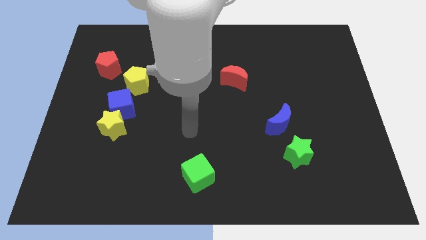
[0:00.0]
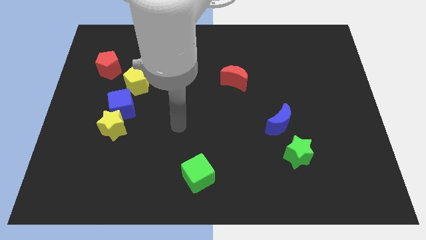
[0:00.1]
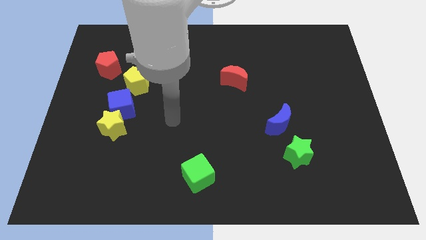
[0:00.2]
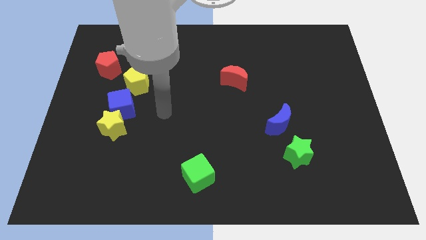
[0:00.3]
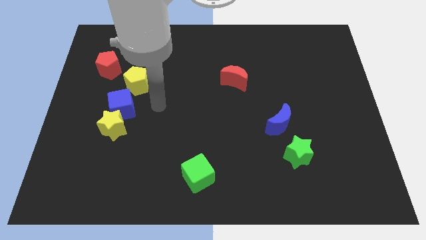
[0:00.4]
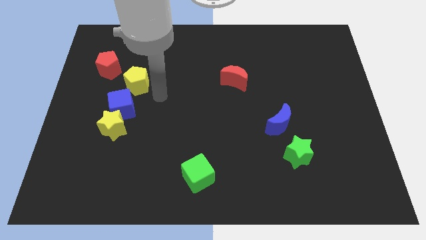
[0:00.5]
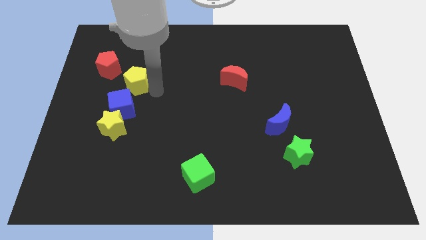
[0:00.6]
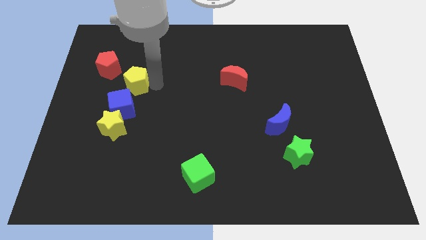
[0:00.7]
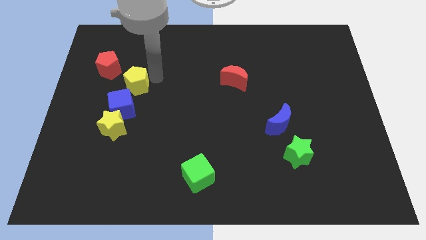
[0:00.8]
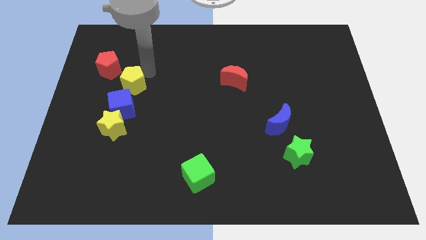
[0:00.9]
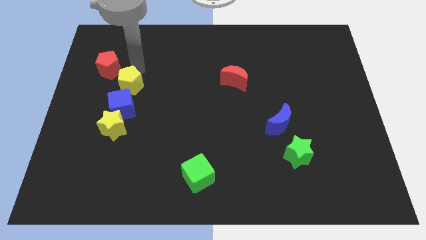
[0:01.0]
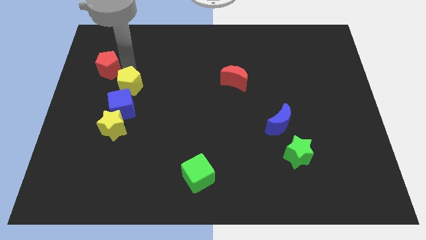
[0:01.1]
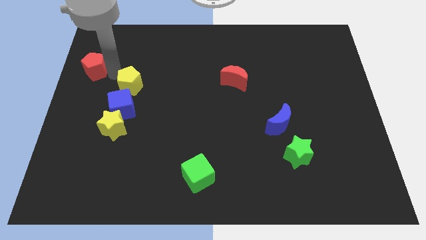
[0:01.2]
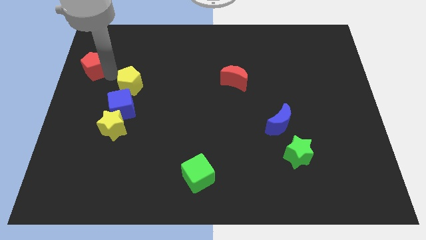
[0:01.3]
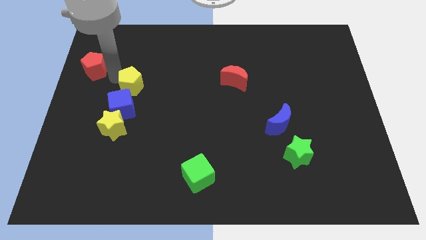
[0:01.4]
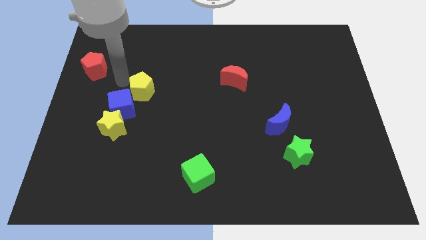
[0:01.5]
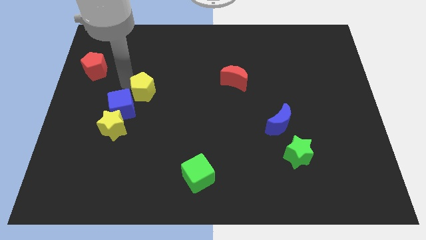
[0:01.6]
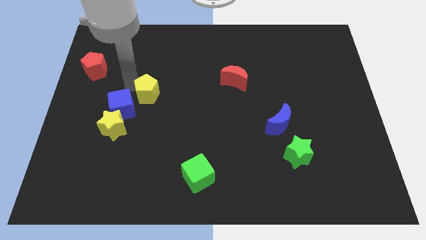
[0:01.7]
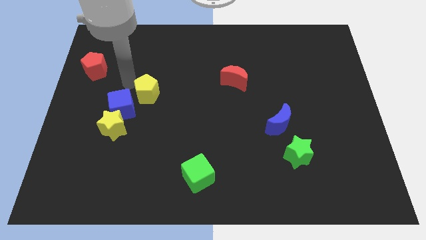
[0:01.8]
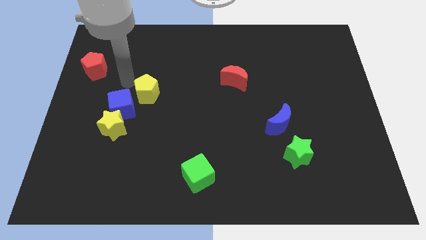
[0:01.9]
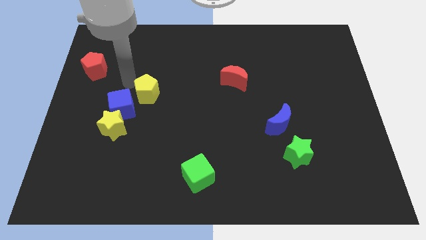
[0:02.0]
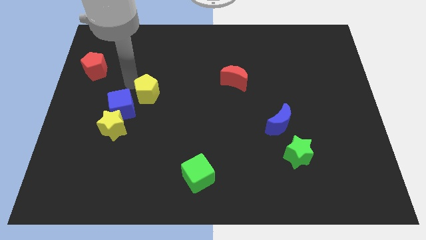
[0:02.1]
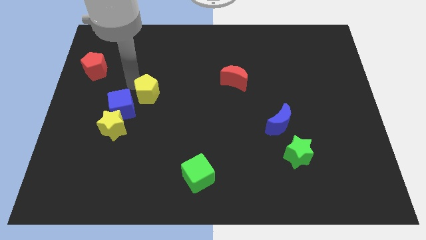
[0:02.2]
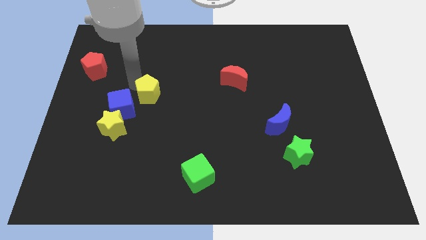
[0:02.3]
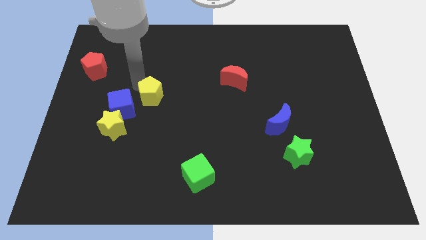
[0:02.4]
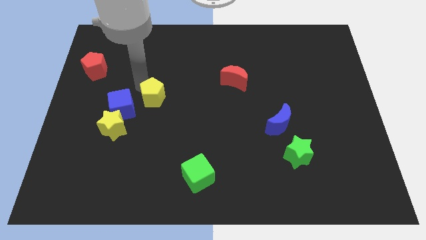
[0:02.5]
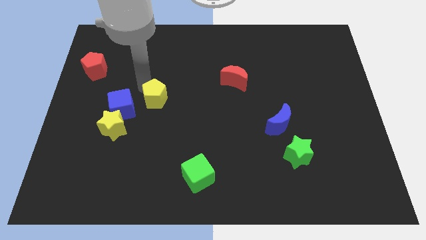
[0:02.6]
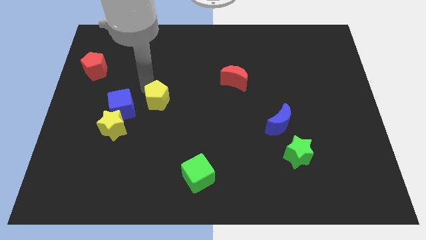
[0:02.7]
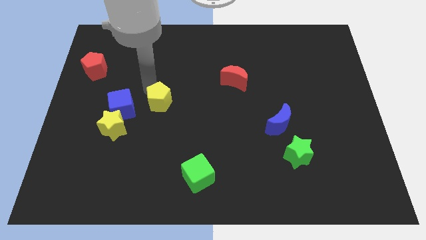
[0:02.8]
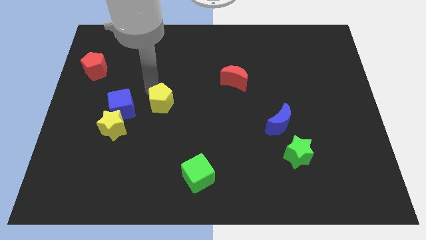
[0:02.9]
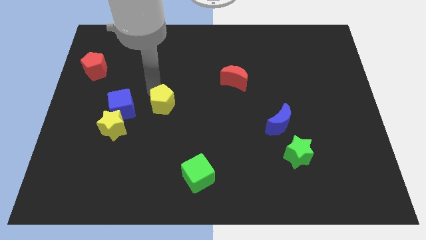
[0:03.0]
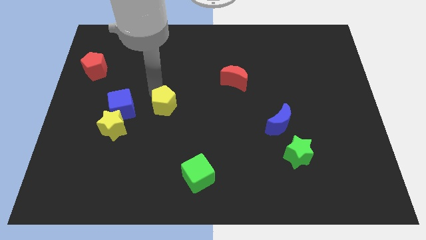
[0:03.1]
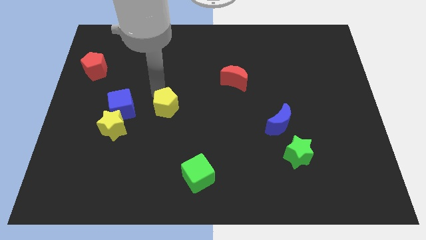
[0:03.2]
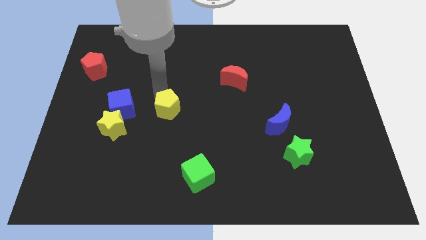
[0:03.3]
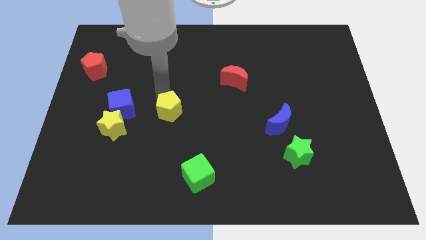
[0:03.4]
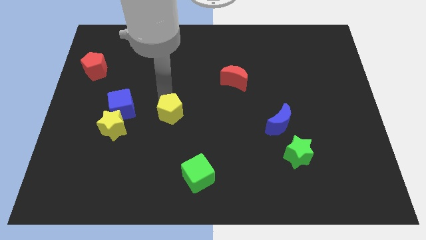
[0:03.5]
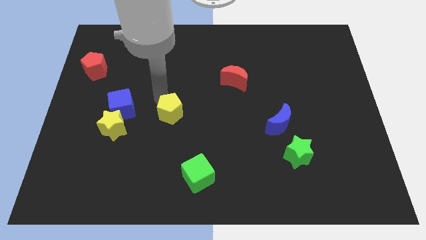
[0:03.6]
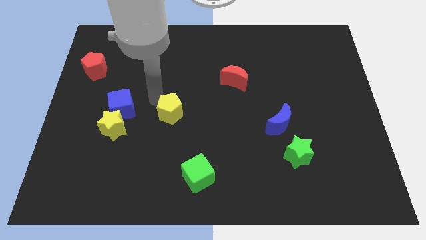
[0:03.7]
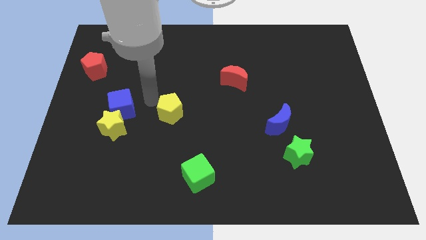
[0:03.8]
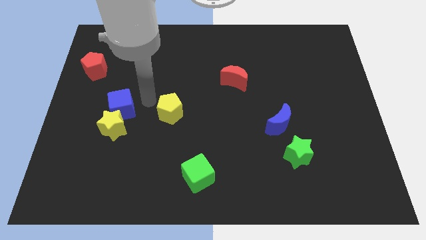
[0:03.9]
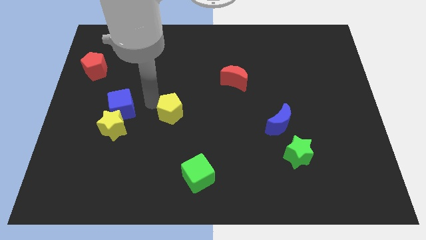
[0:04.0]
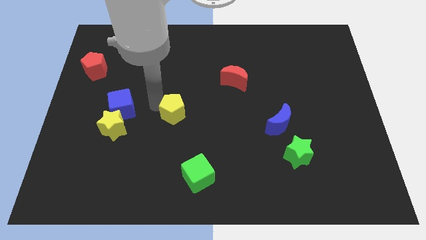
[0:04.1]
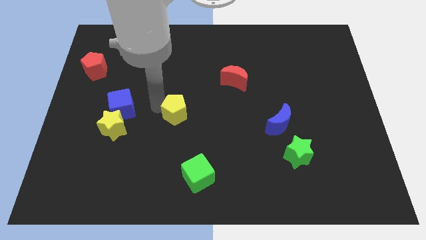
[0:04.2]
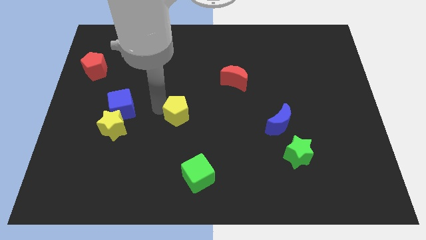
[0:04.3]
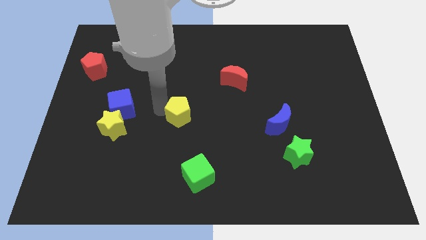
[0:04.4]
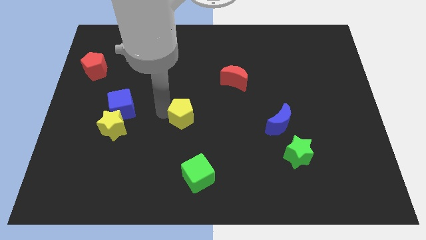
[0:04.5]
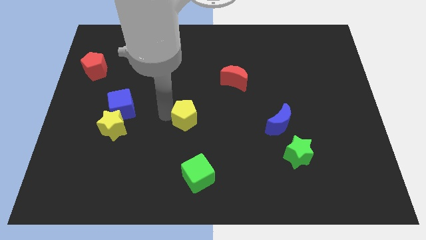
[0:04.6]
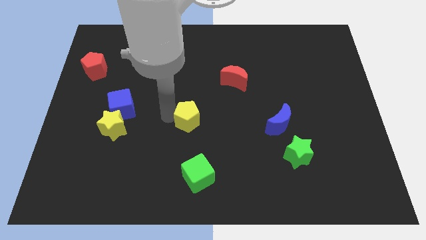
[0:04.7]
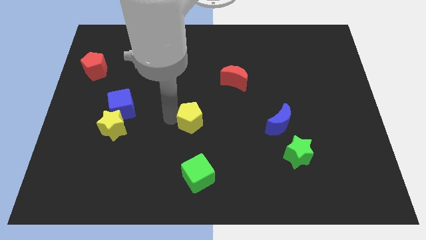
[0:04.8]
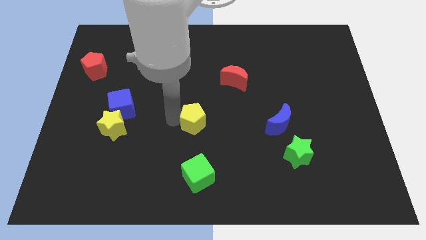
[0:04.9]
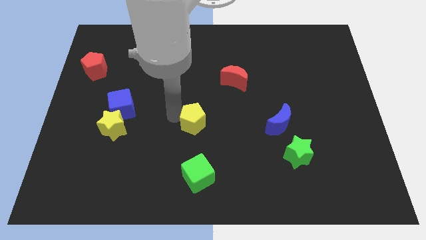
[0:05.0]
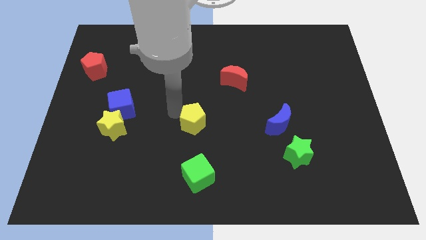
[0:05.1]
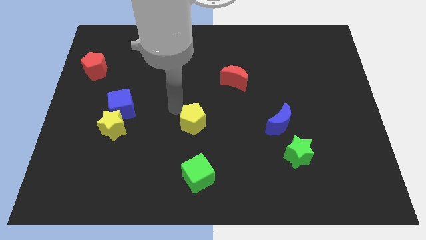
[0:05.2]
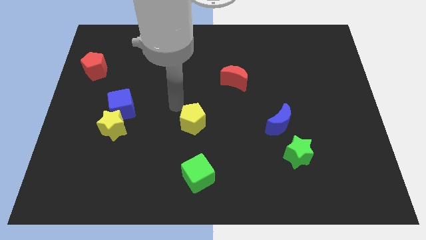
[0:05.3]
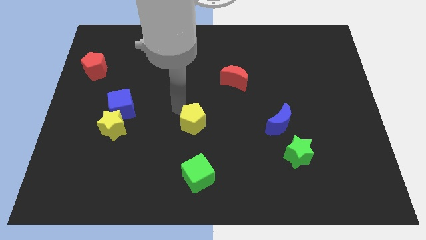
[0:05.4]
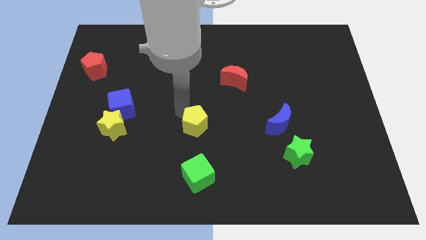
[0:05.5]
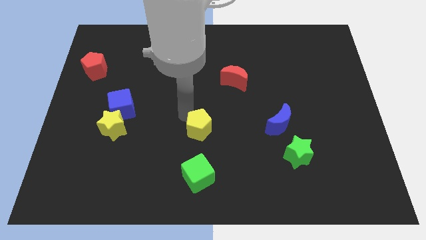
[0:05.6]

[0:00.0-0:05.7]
slide the yellow pentagon downwards and then to the right

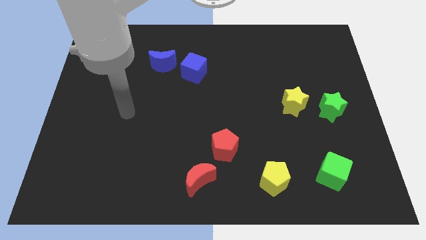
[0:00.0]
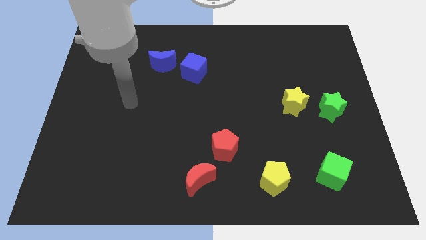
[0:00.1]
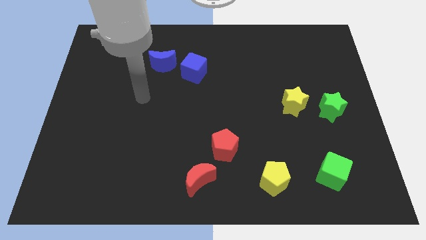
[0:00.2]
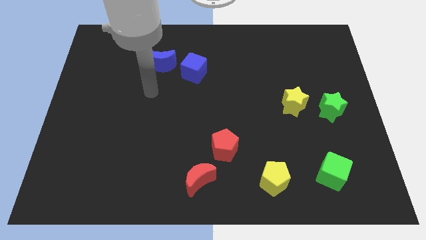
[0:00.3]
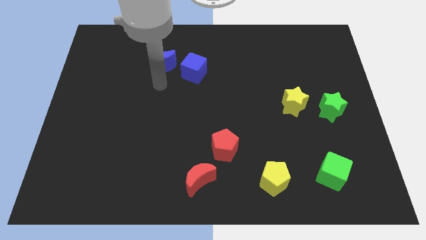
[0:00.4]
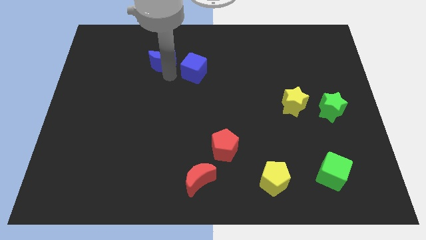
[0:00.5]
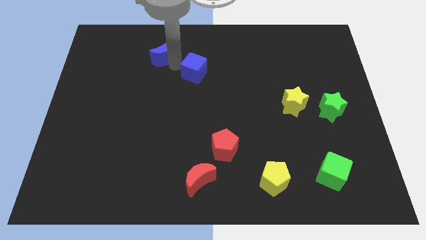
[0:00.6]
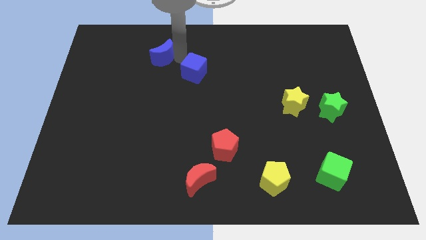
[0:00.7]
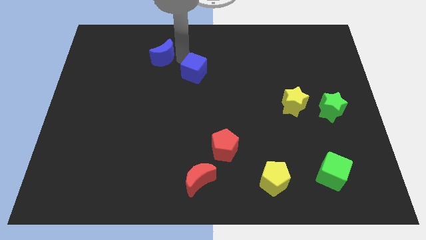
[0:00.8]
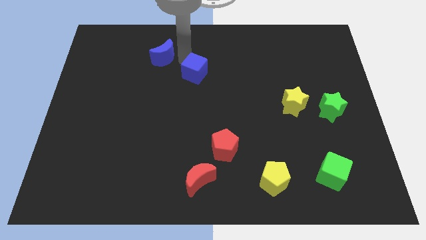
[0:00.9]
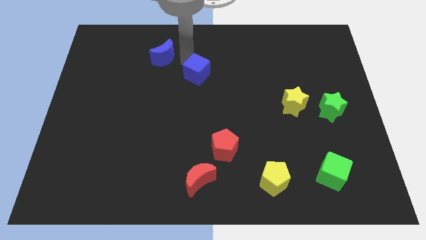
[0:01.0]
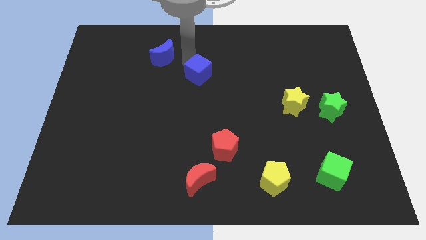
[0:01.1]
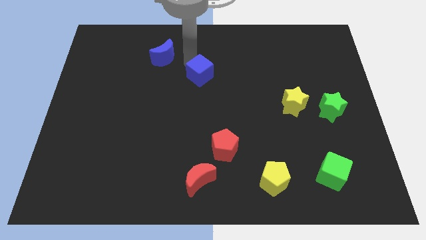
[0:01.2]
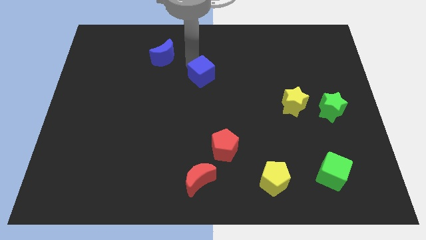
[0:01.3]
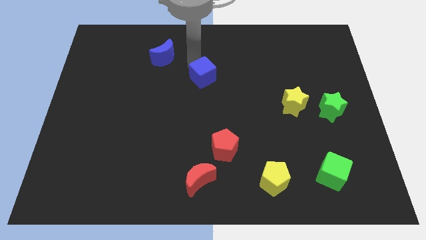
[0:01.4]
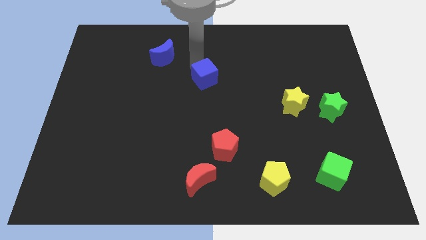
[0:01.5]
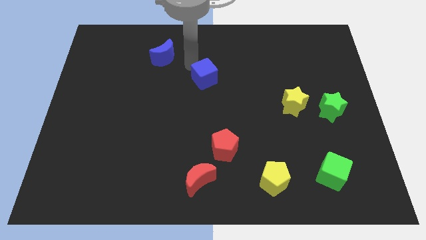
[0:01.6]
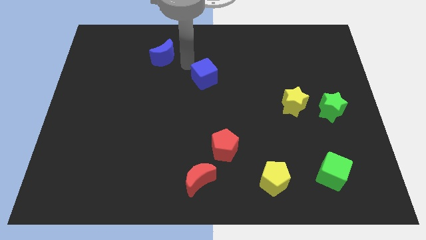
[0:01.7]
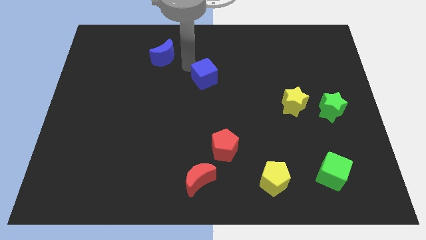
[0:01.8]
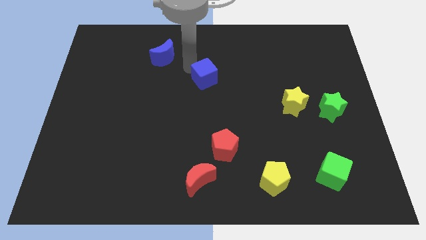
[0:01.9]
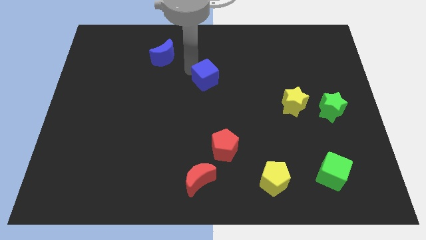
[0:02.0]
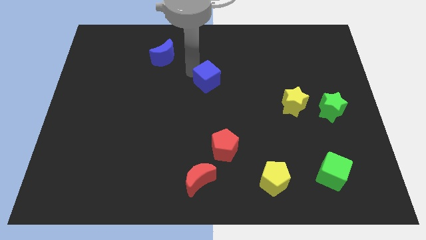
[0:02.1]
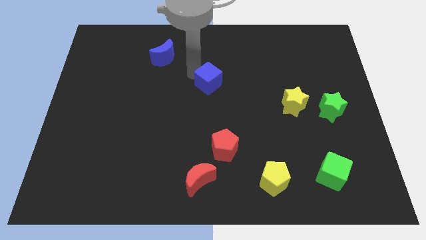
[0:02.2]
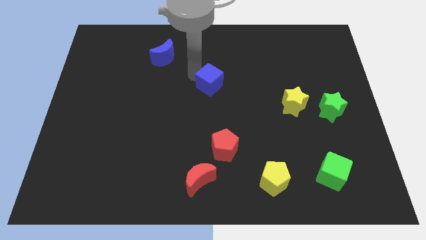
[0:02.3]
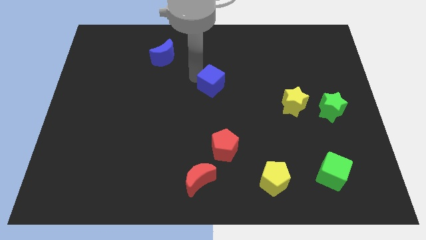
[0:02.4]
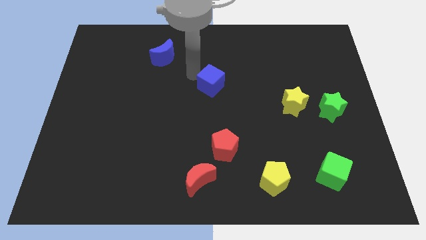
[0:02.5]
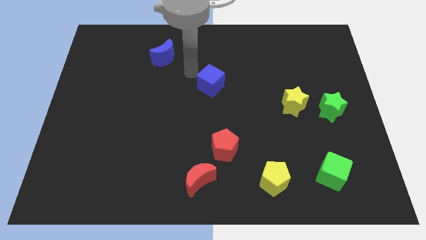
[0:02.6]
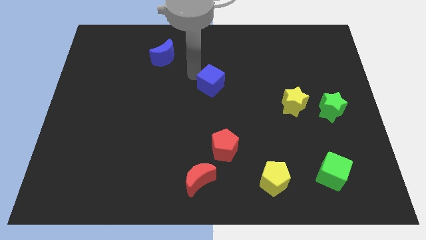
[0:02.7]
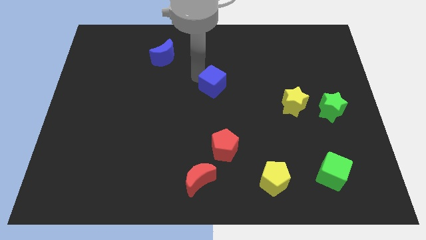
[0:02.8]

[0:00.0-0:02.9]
slightly move the blue cube downwards and right diagonally

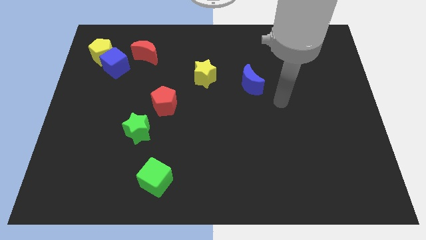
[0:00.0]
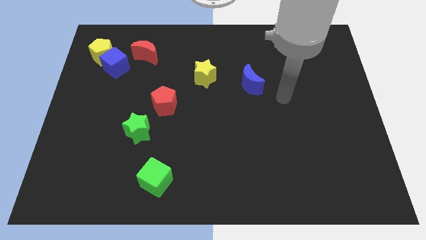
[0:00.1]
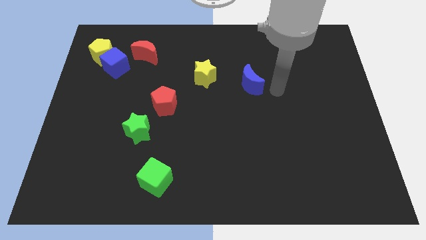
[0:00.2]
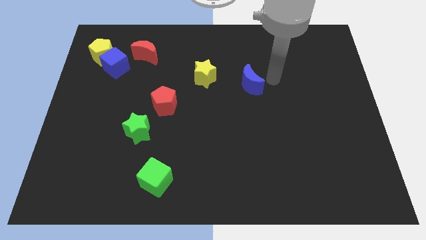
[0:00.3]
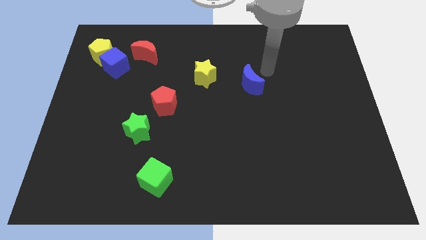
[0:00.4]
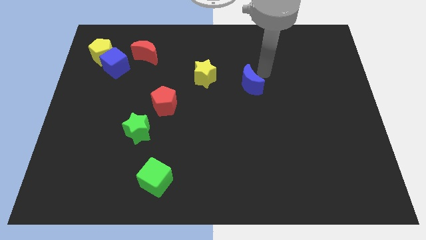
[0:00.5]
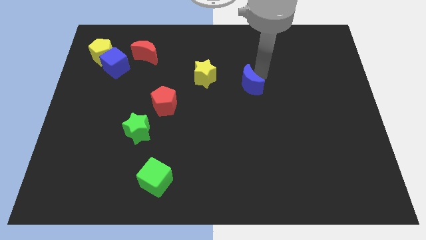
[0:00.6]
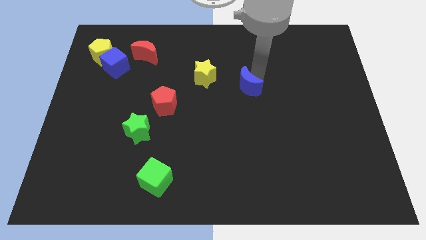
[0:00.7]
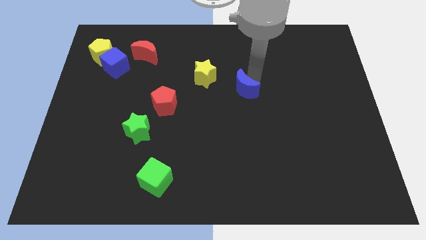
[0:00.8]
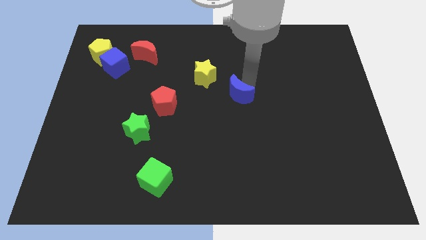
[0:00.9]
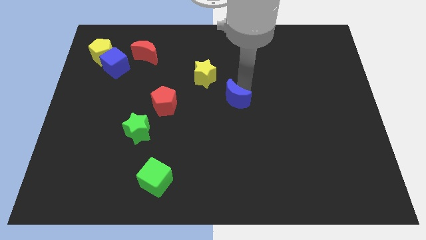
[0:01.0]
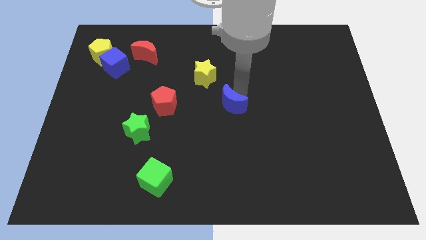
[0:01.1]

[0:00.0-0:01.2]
push the blue moon a bit down and then to the left
